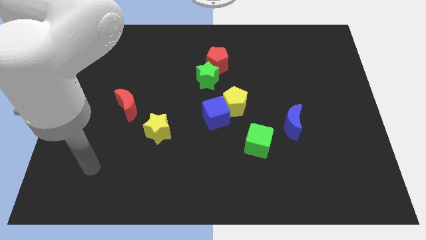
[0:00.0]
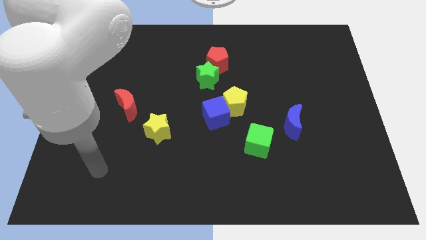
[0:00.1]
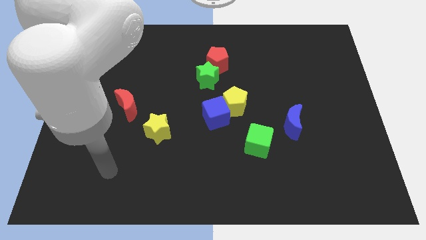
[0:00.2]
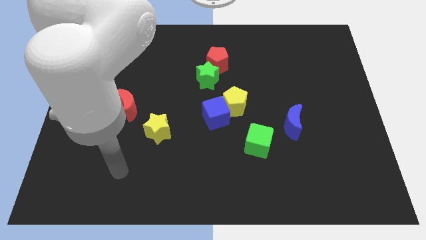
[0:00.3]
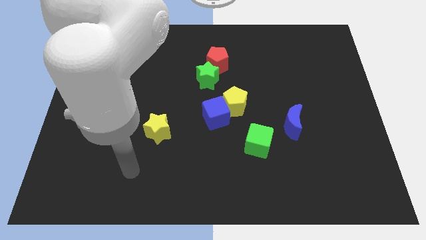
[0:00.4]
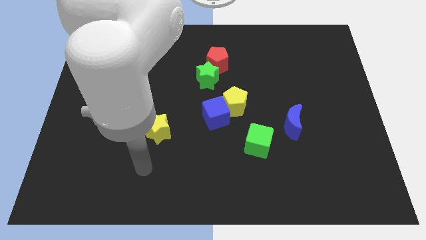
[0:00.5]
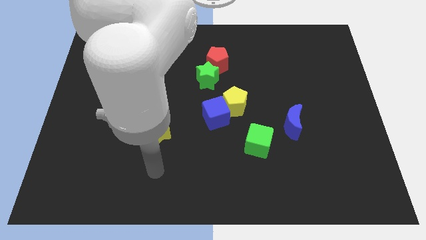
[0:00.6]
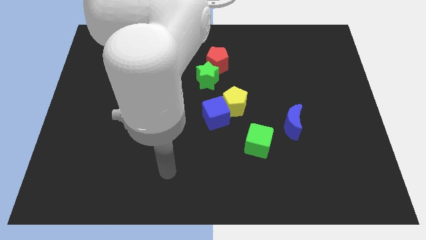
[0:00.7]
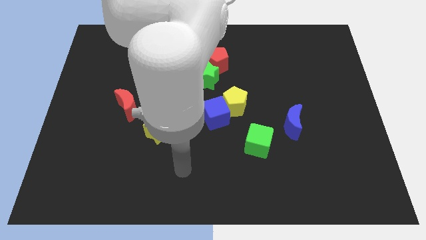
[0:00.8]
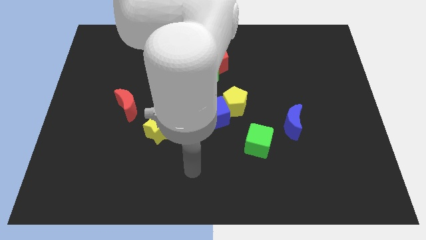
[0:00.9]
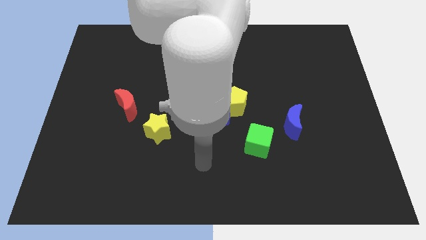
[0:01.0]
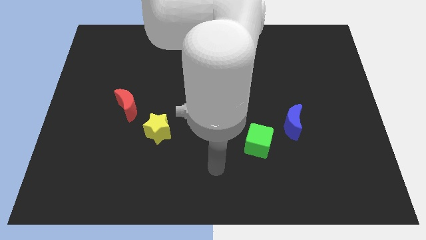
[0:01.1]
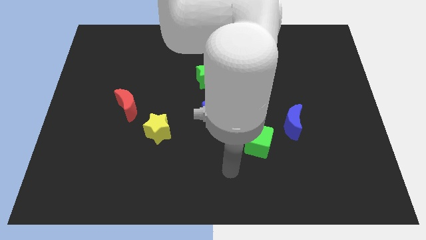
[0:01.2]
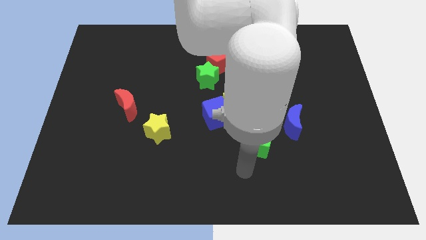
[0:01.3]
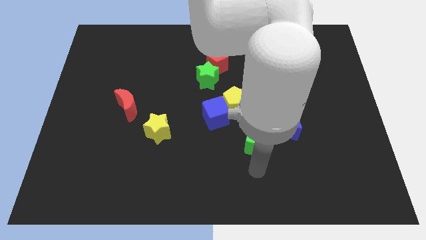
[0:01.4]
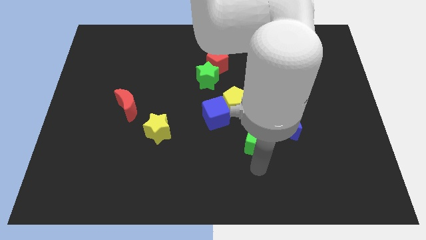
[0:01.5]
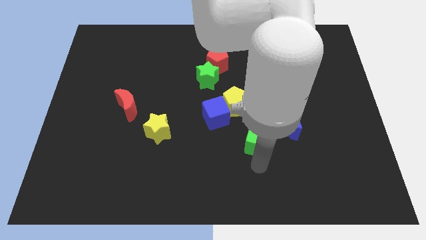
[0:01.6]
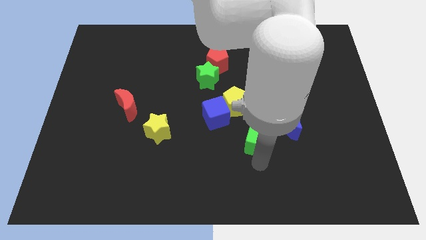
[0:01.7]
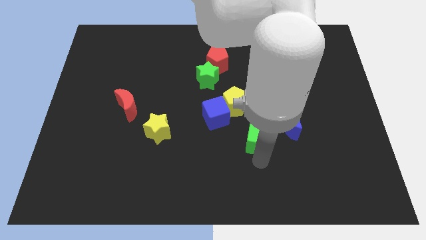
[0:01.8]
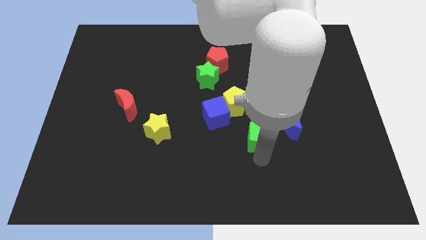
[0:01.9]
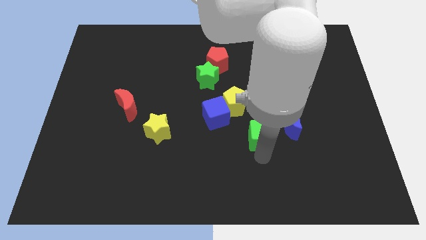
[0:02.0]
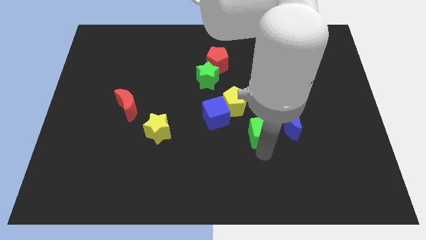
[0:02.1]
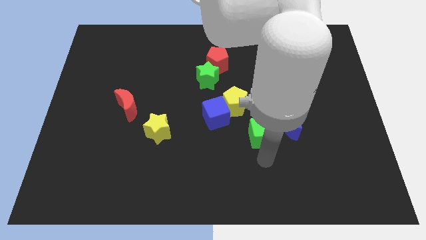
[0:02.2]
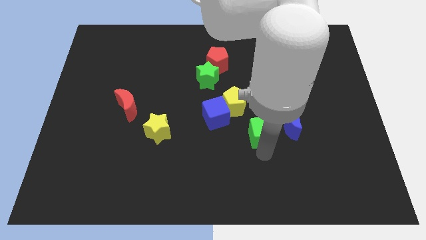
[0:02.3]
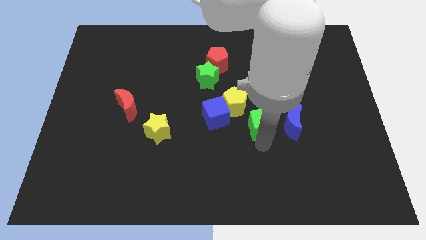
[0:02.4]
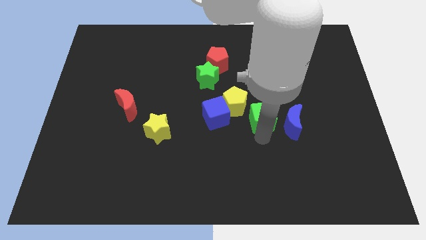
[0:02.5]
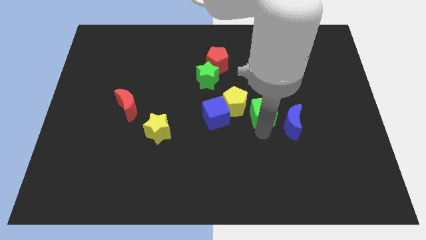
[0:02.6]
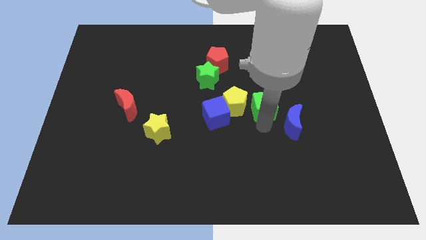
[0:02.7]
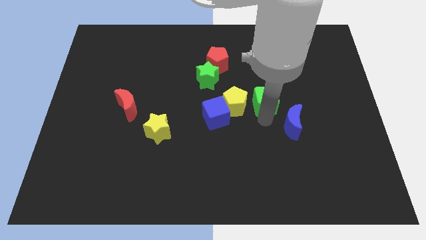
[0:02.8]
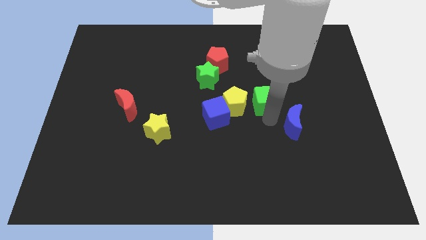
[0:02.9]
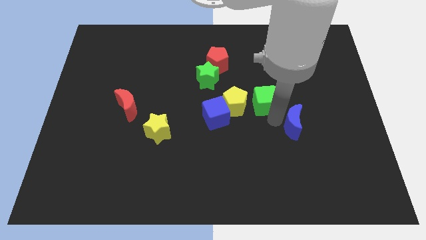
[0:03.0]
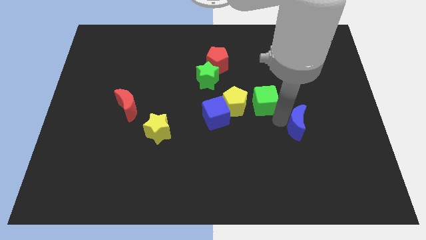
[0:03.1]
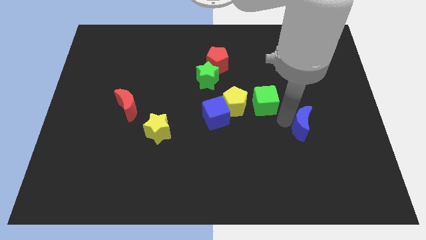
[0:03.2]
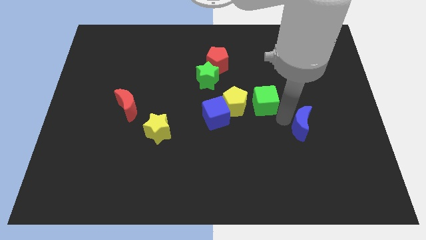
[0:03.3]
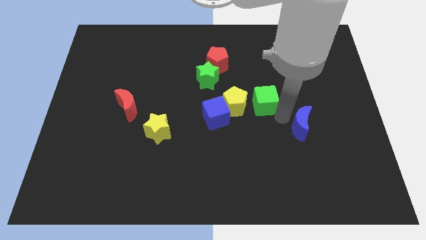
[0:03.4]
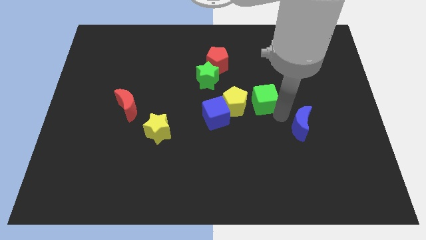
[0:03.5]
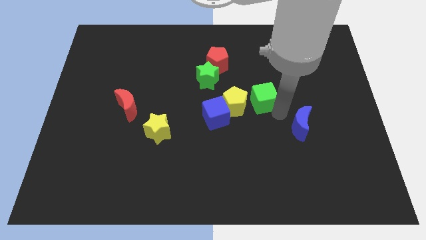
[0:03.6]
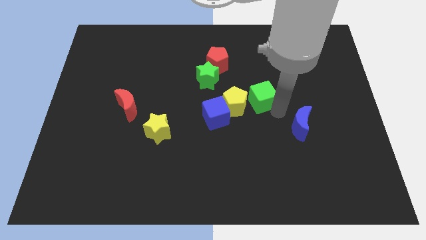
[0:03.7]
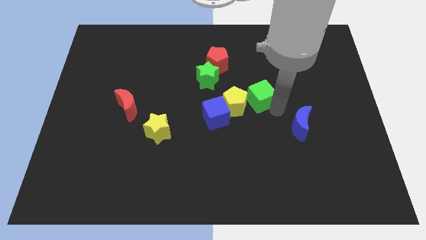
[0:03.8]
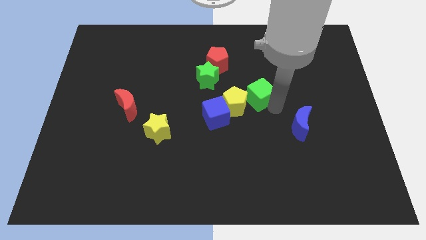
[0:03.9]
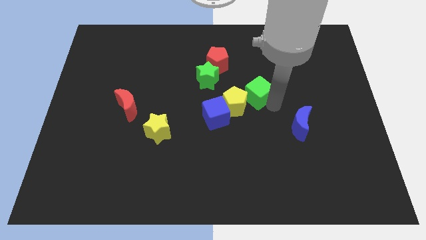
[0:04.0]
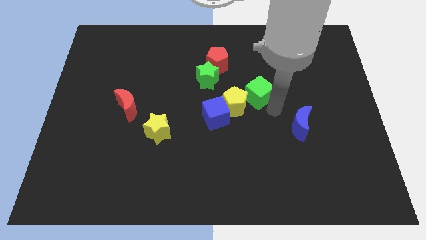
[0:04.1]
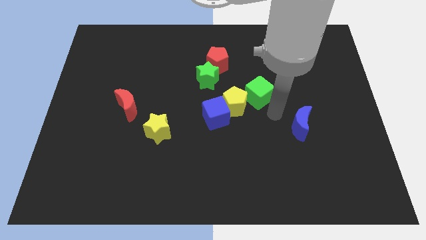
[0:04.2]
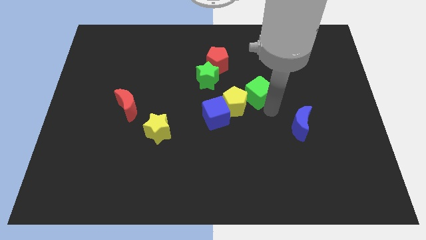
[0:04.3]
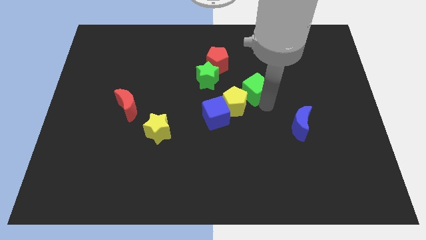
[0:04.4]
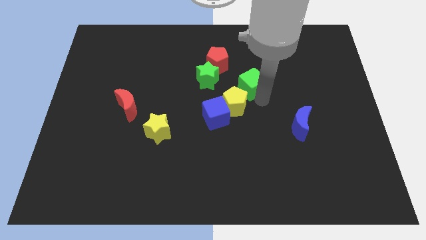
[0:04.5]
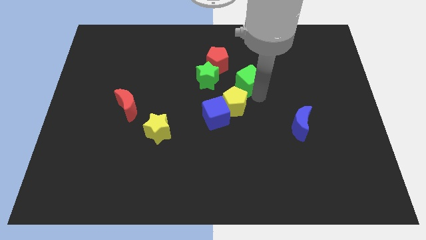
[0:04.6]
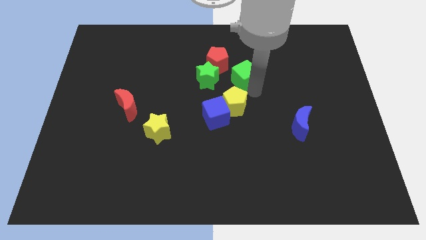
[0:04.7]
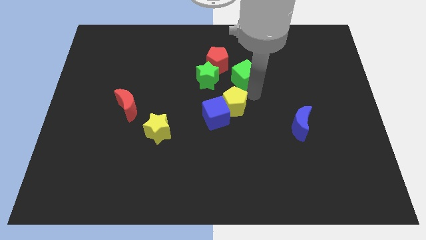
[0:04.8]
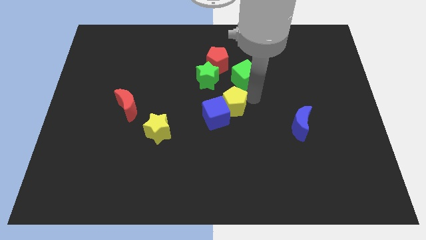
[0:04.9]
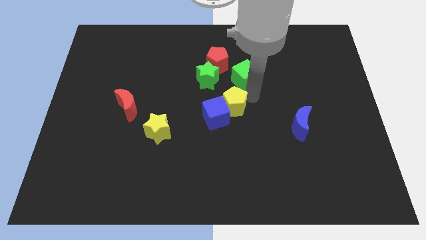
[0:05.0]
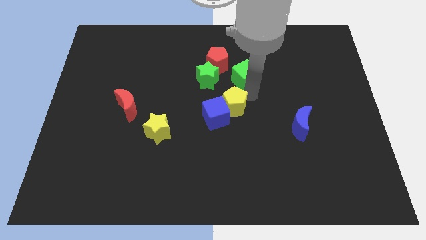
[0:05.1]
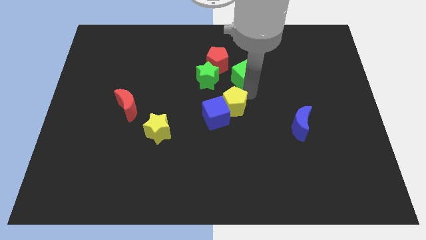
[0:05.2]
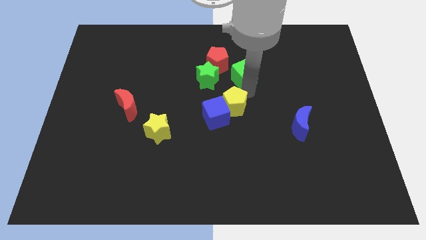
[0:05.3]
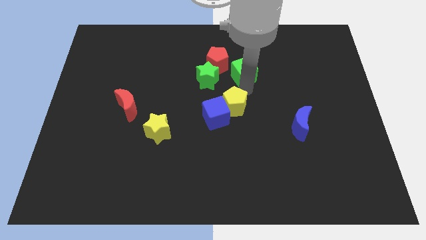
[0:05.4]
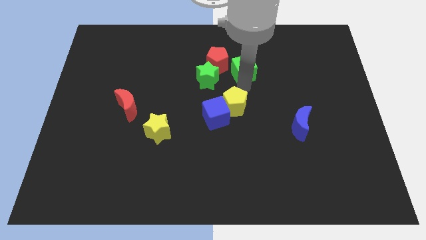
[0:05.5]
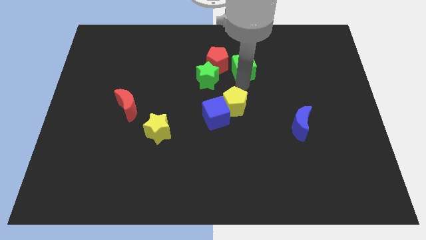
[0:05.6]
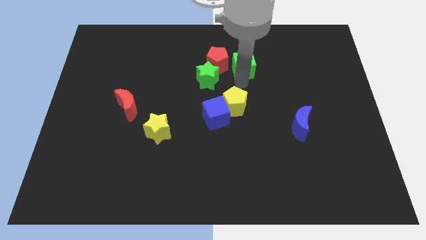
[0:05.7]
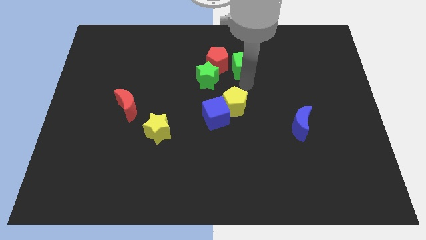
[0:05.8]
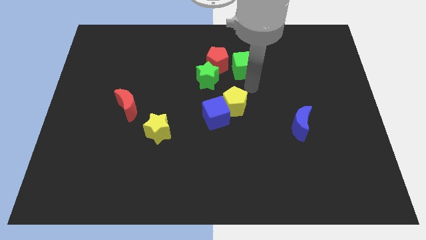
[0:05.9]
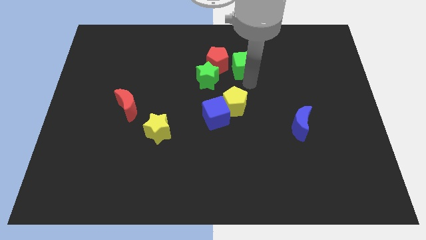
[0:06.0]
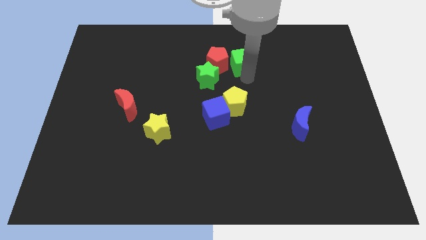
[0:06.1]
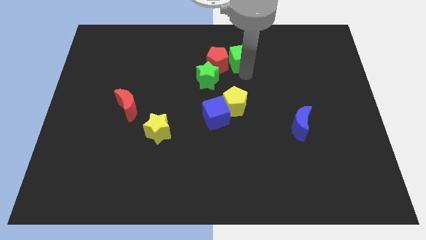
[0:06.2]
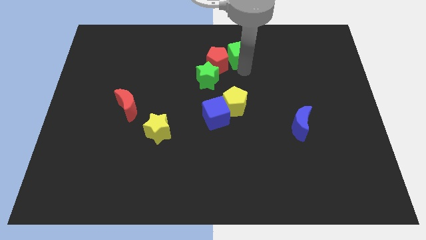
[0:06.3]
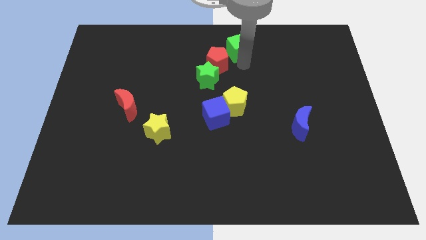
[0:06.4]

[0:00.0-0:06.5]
push the green cube to the top side
